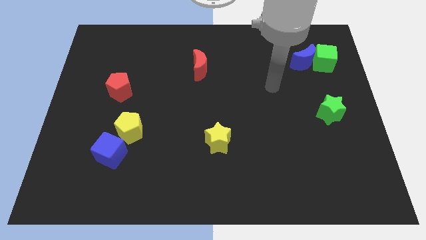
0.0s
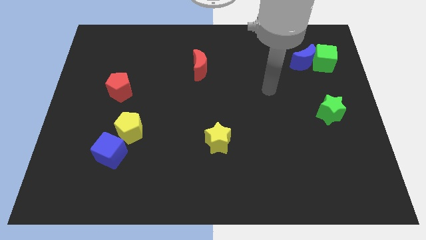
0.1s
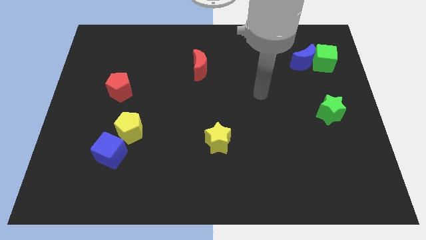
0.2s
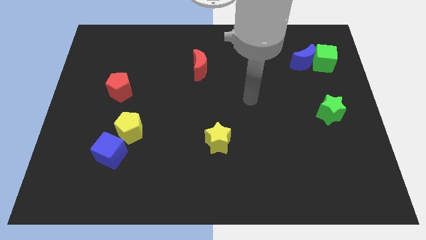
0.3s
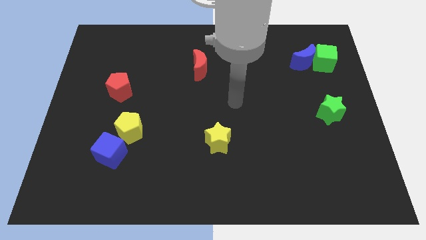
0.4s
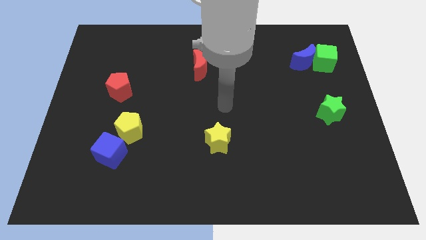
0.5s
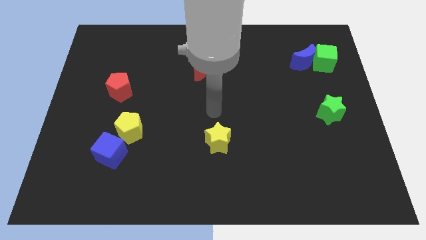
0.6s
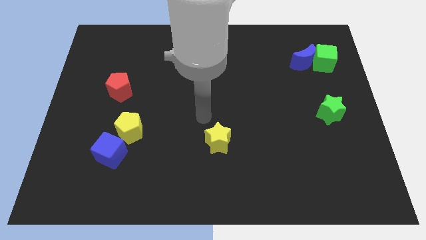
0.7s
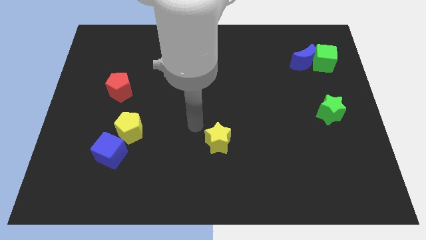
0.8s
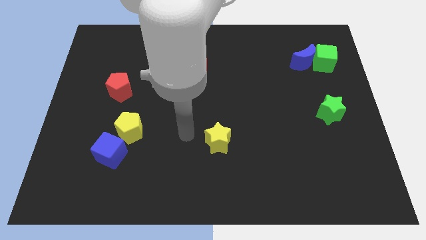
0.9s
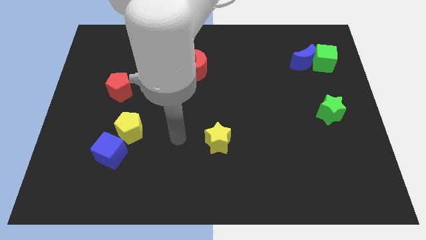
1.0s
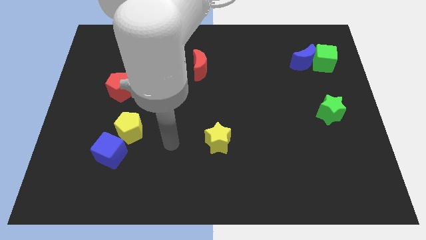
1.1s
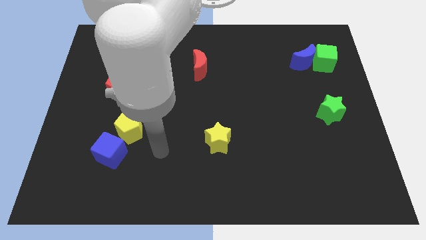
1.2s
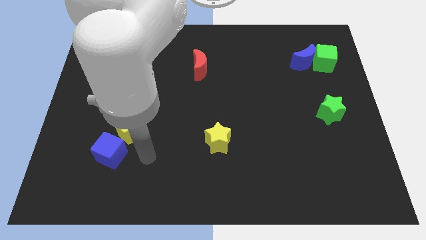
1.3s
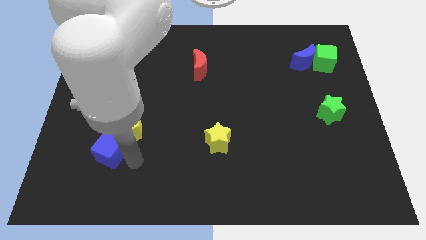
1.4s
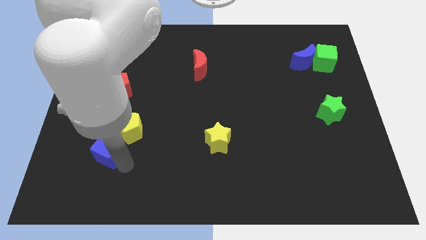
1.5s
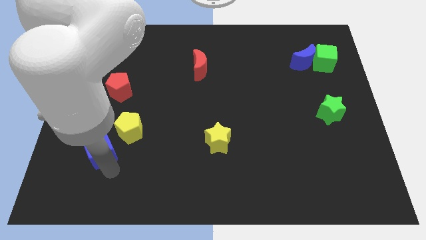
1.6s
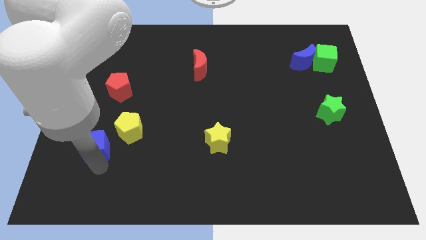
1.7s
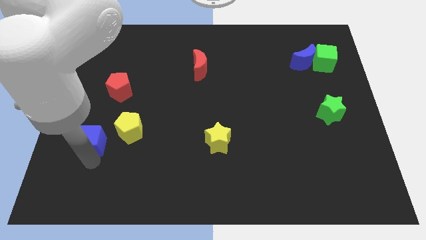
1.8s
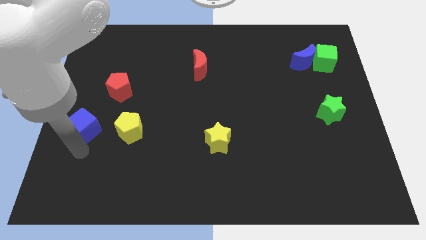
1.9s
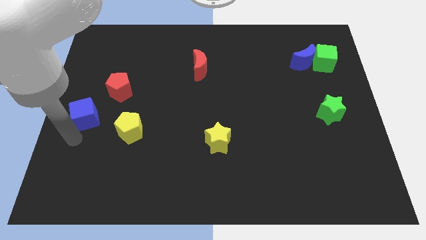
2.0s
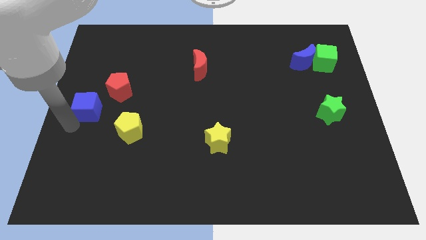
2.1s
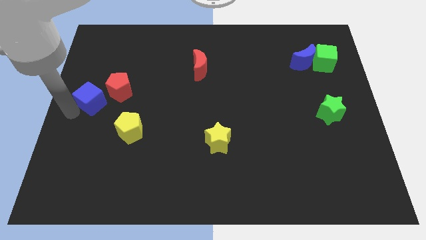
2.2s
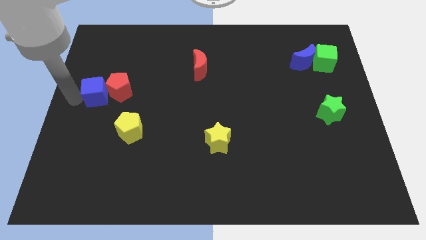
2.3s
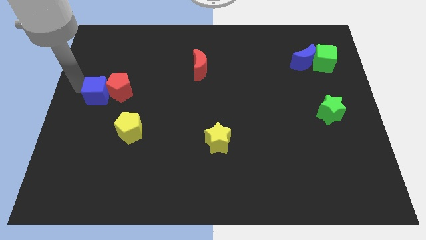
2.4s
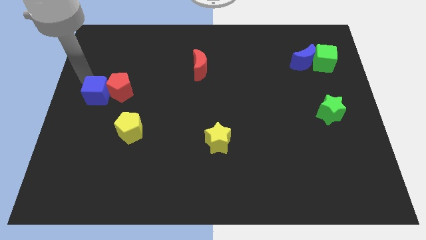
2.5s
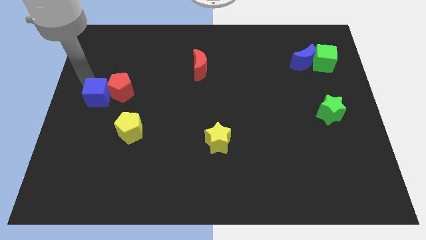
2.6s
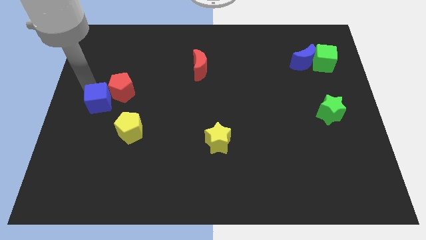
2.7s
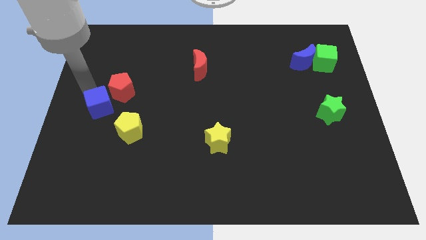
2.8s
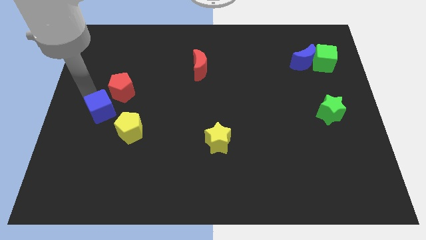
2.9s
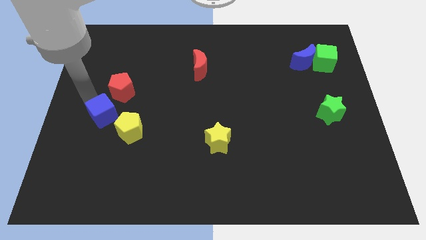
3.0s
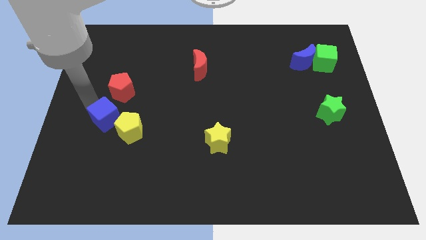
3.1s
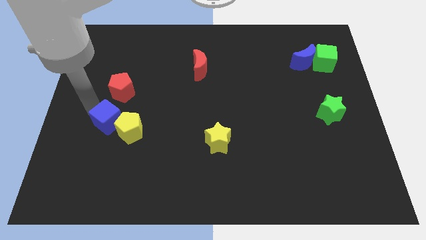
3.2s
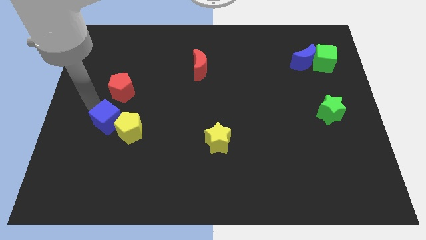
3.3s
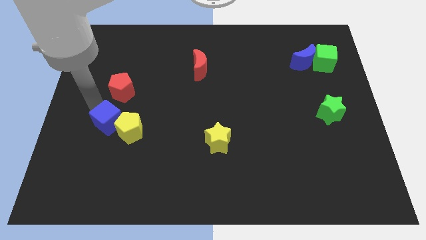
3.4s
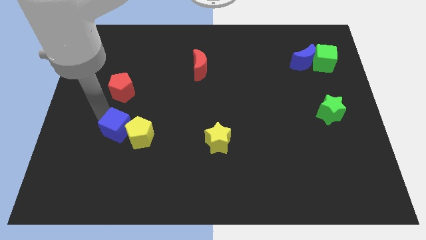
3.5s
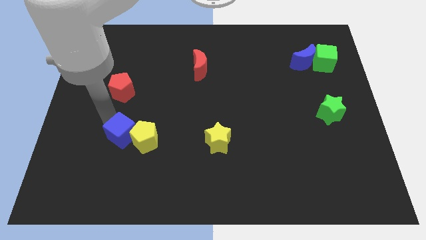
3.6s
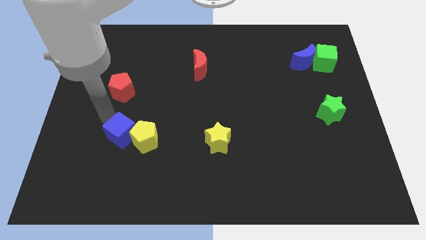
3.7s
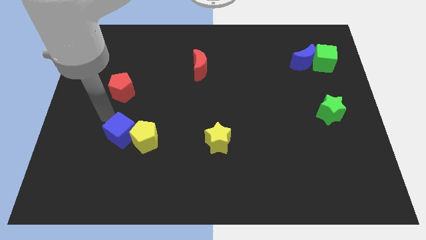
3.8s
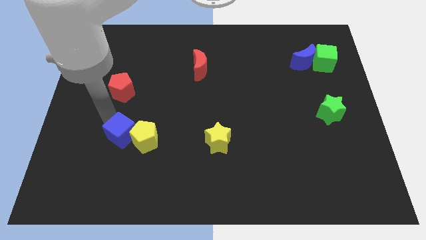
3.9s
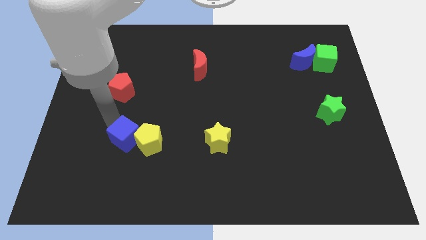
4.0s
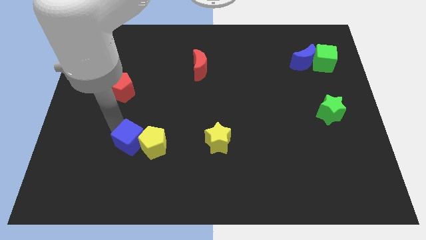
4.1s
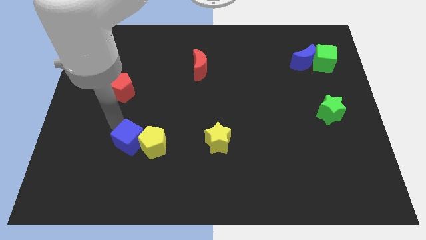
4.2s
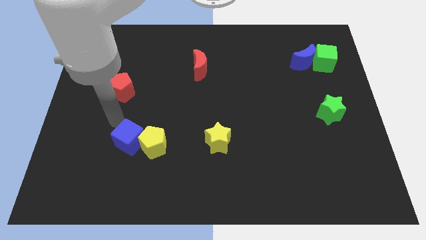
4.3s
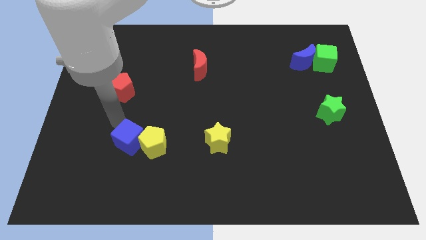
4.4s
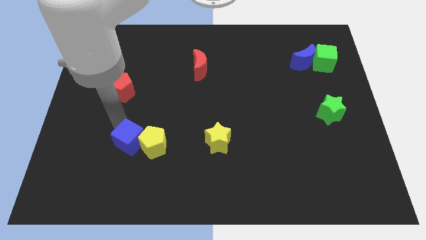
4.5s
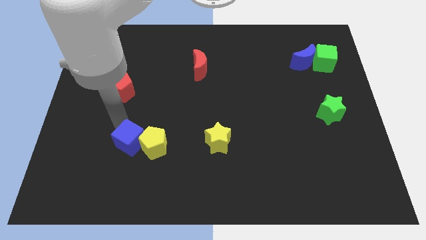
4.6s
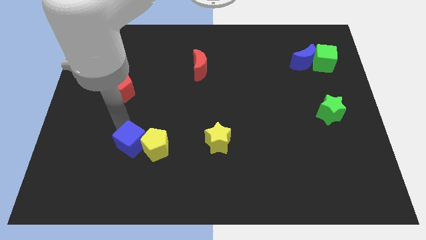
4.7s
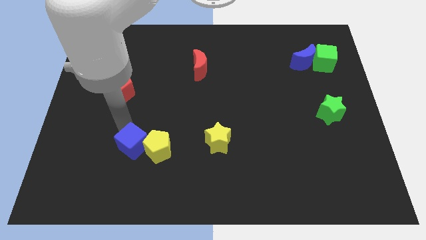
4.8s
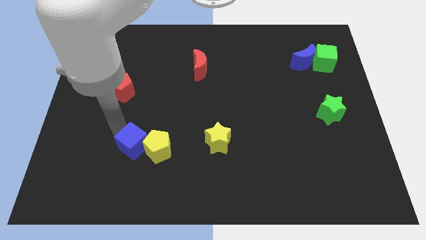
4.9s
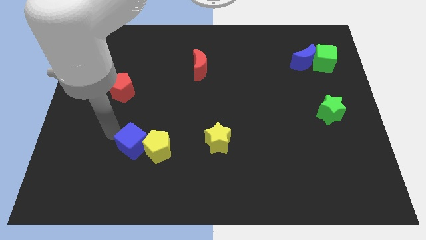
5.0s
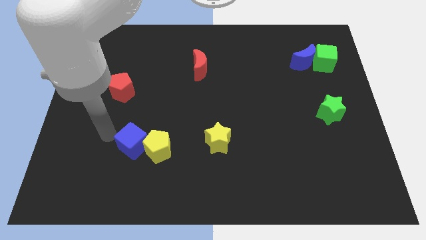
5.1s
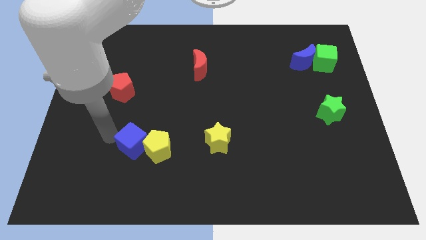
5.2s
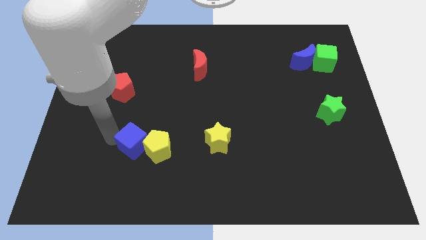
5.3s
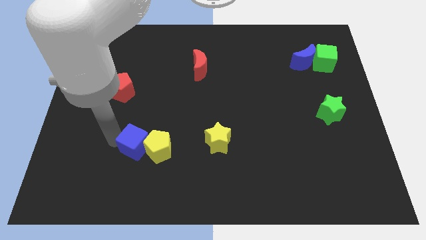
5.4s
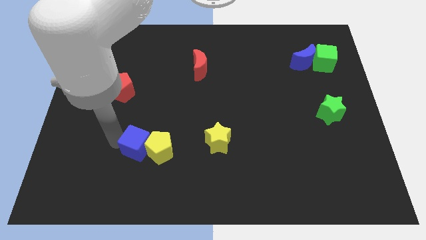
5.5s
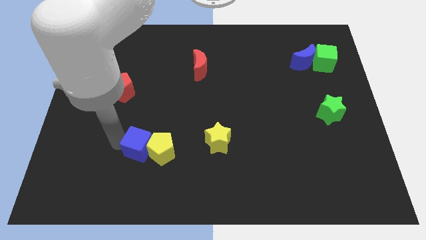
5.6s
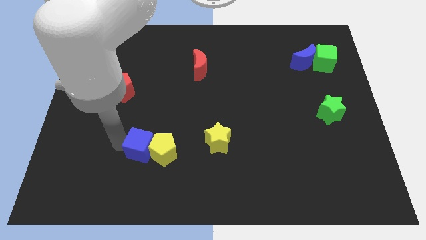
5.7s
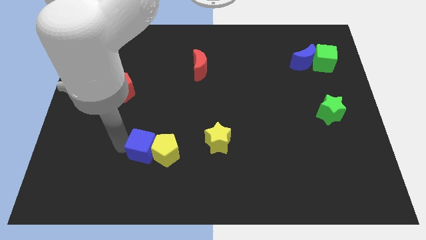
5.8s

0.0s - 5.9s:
move the blue cube to the right slightly

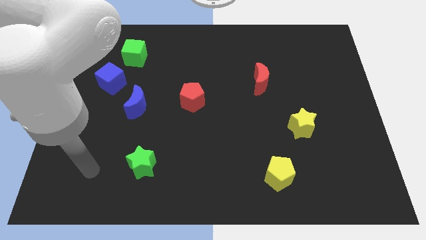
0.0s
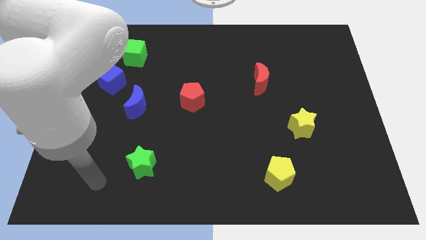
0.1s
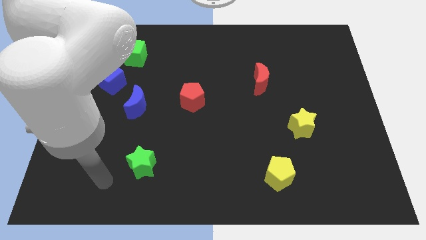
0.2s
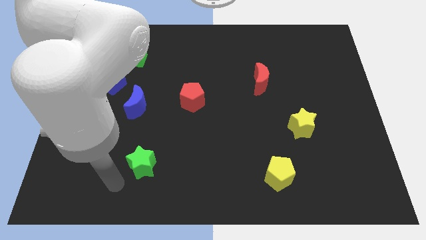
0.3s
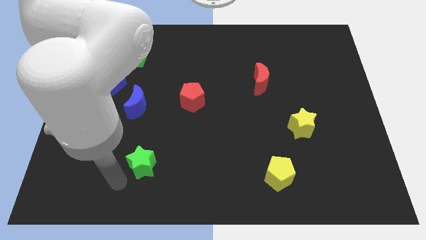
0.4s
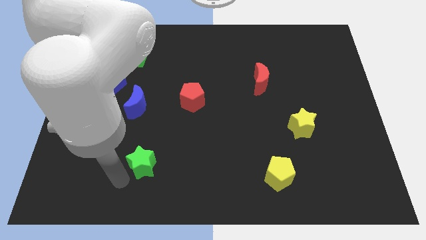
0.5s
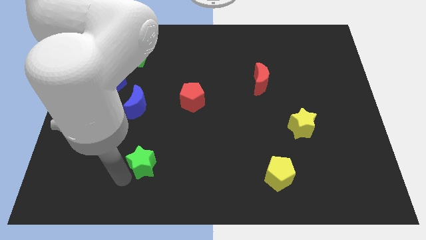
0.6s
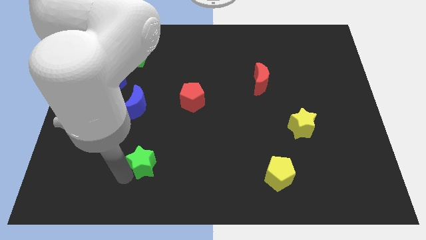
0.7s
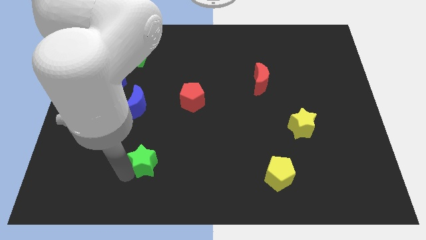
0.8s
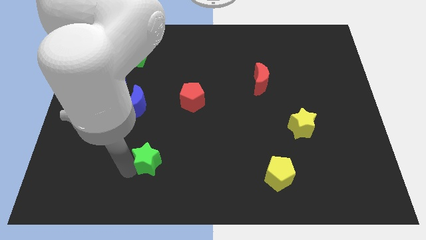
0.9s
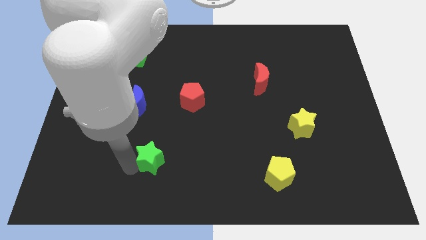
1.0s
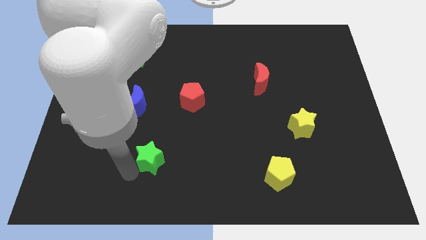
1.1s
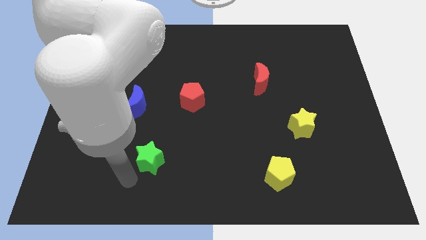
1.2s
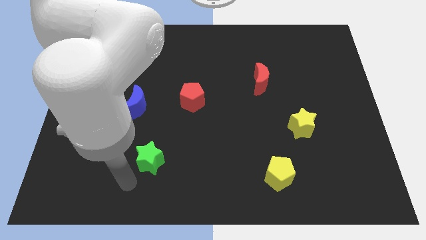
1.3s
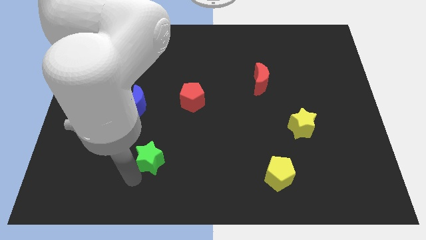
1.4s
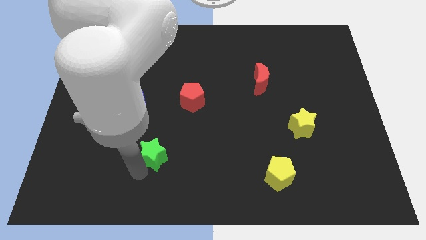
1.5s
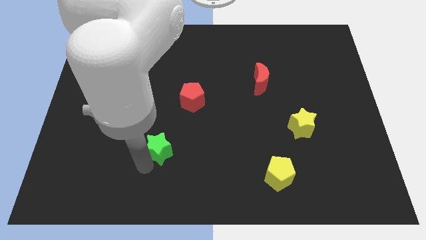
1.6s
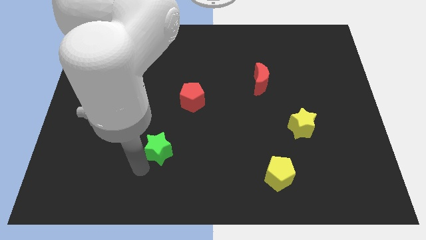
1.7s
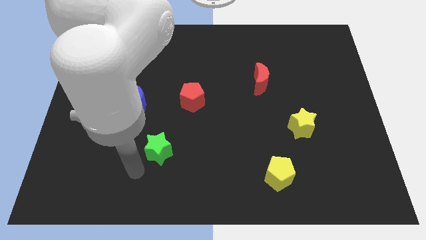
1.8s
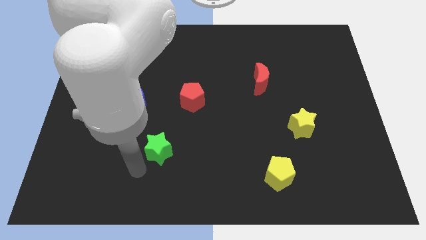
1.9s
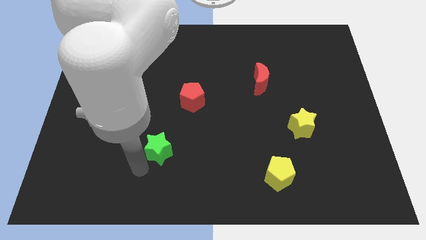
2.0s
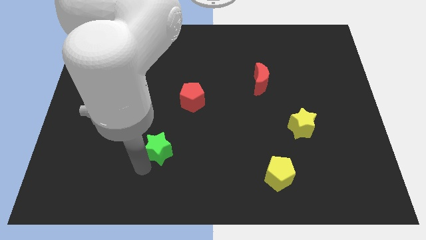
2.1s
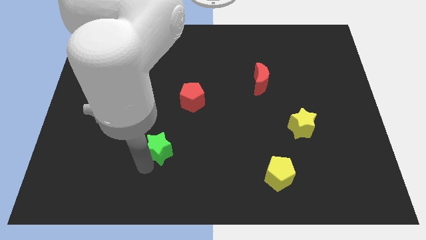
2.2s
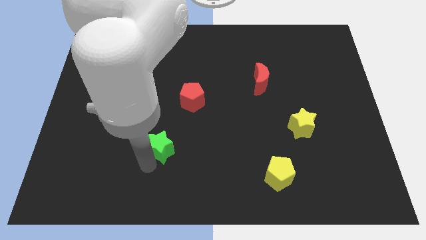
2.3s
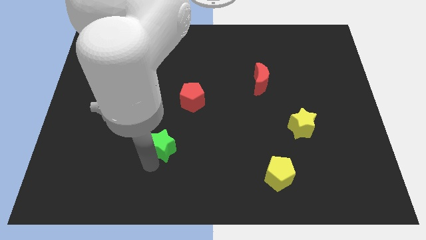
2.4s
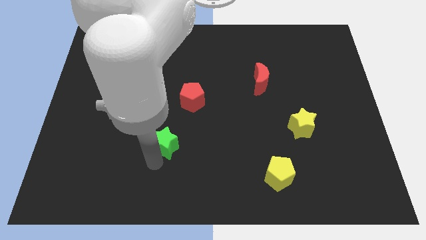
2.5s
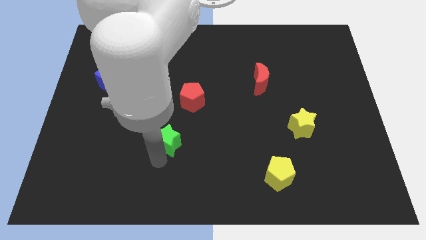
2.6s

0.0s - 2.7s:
slightly move the green star up and right diagonally
